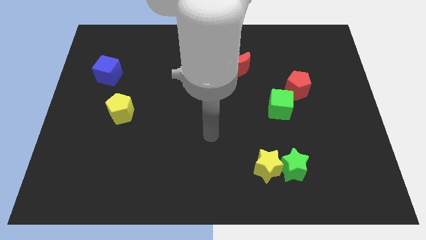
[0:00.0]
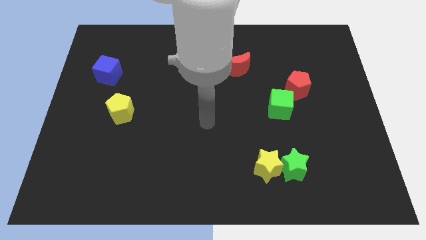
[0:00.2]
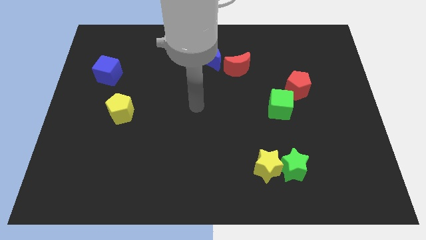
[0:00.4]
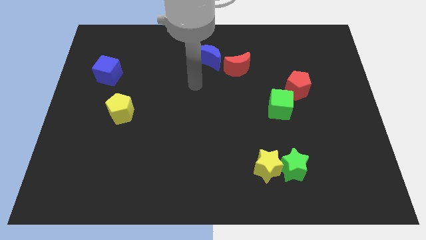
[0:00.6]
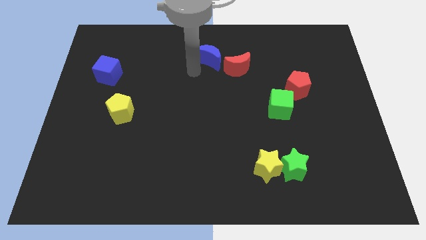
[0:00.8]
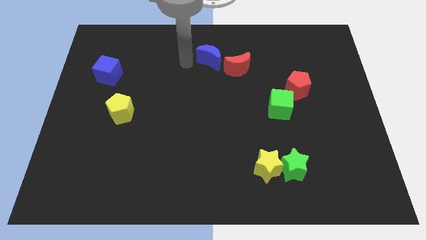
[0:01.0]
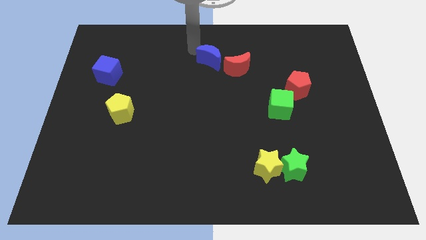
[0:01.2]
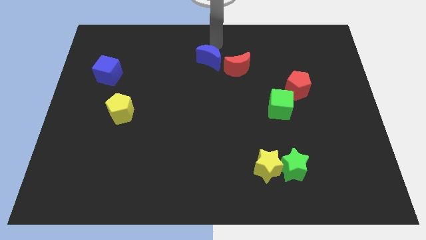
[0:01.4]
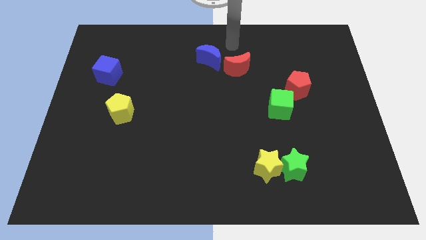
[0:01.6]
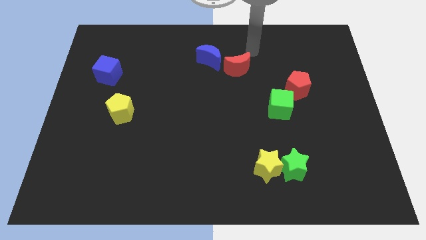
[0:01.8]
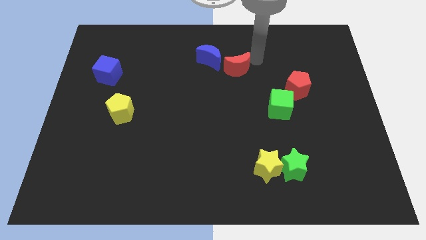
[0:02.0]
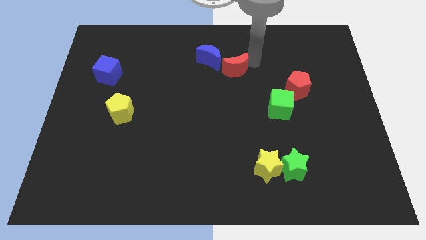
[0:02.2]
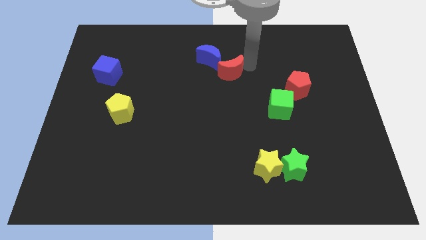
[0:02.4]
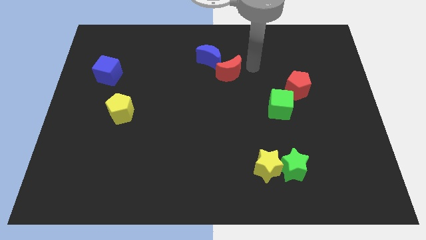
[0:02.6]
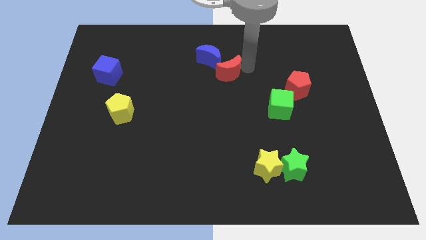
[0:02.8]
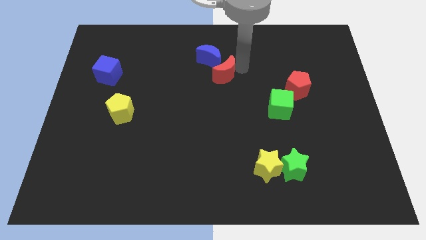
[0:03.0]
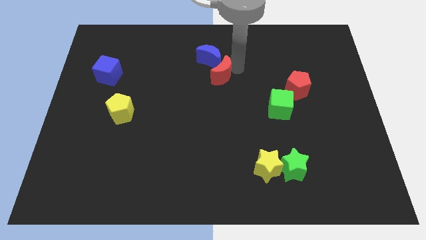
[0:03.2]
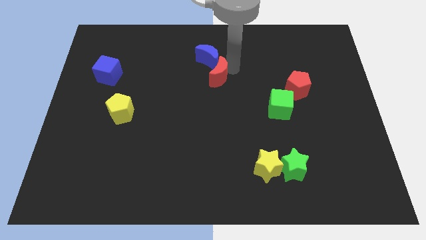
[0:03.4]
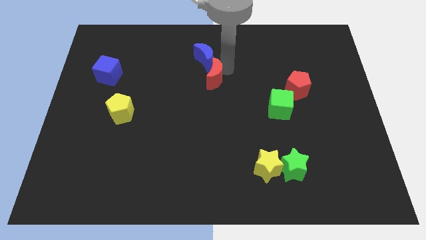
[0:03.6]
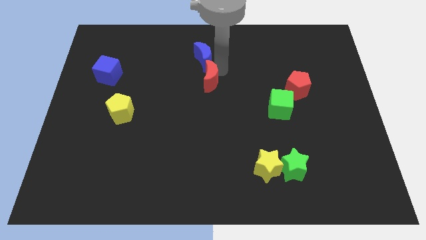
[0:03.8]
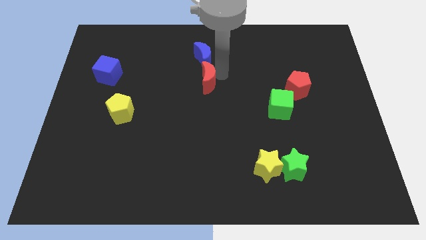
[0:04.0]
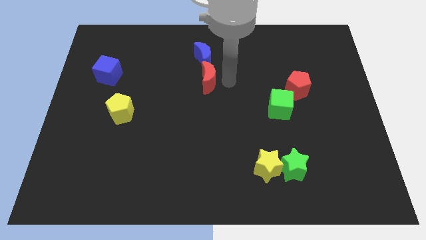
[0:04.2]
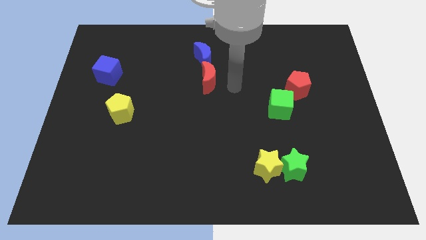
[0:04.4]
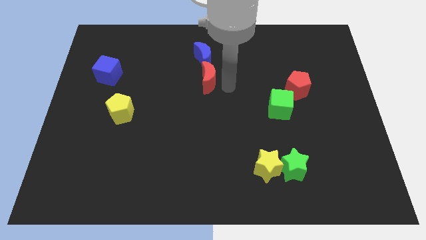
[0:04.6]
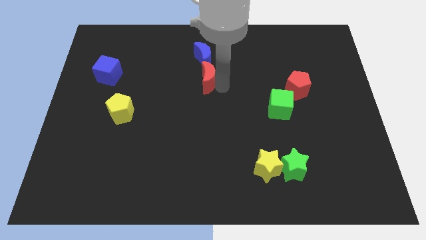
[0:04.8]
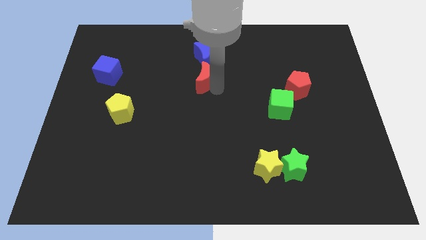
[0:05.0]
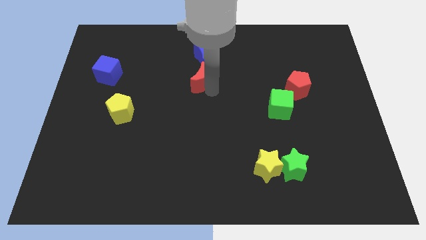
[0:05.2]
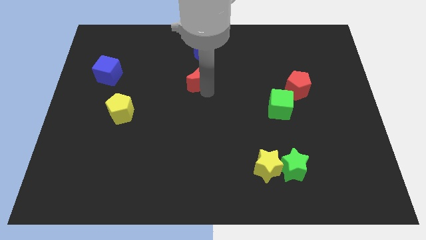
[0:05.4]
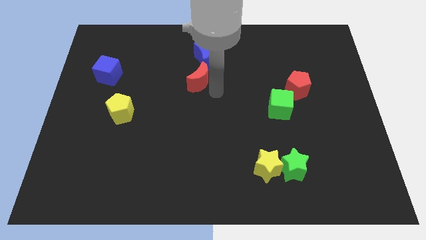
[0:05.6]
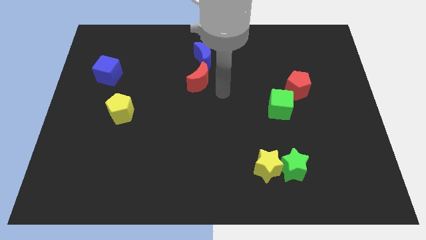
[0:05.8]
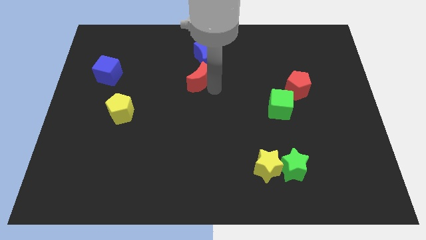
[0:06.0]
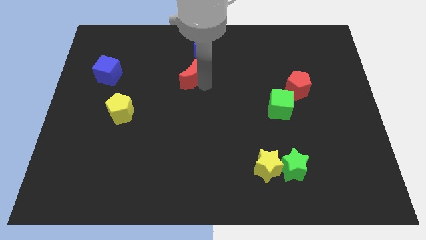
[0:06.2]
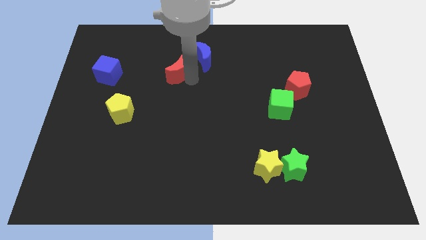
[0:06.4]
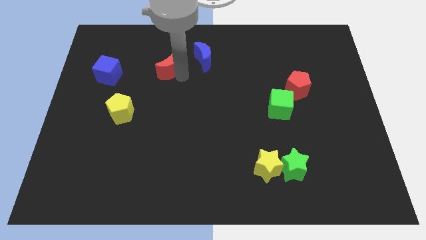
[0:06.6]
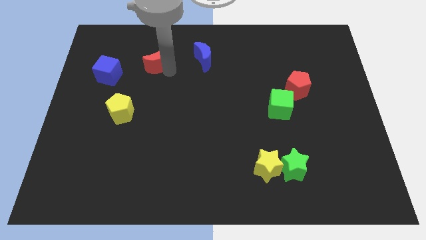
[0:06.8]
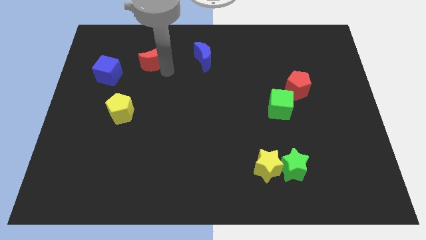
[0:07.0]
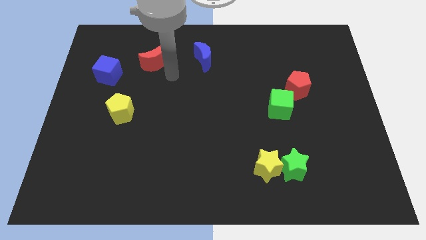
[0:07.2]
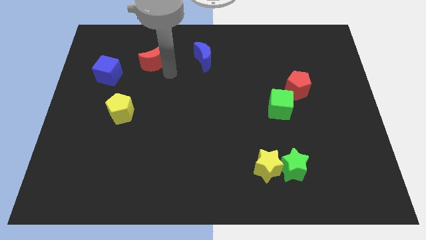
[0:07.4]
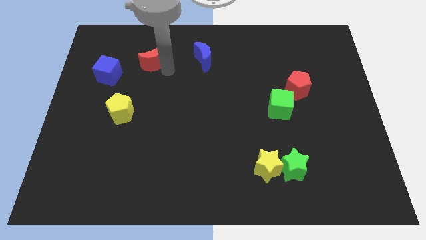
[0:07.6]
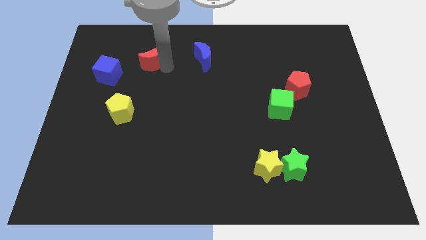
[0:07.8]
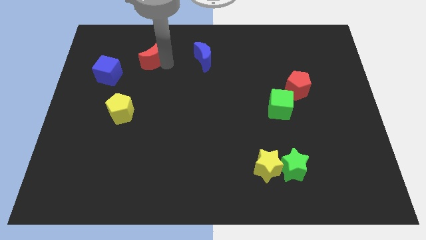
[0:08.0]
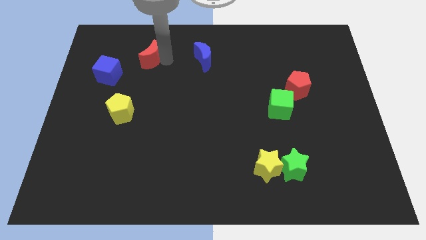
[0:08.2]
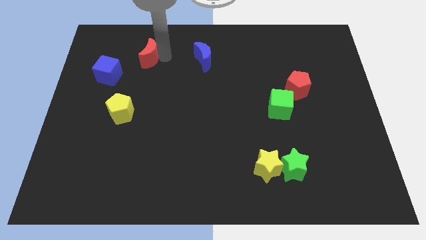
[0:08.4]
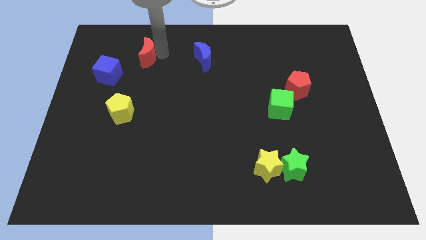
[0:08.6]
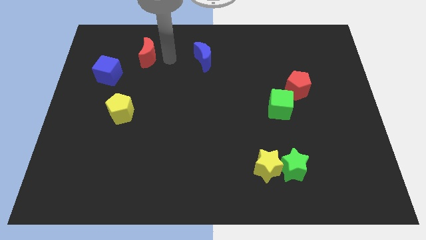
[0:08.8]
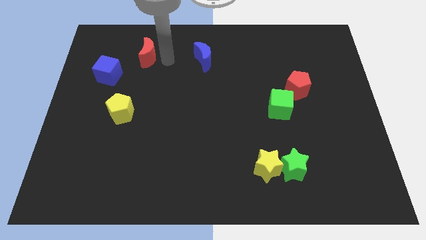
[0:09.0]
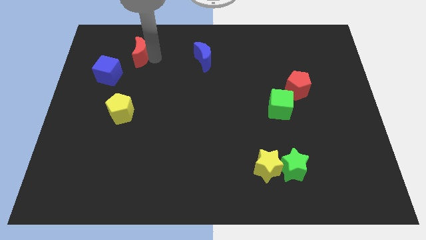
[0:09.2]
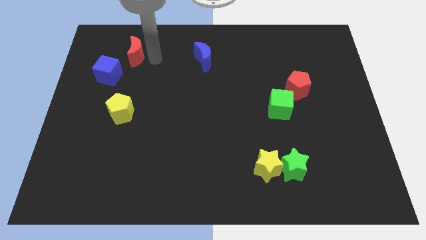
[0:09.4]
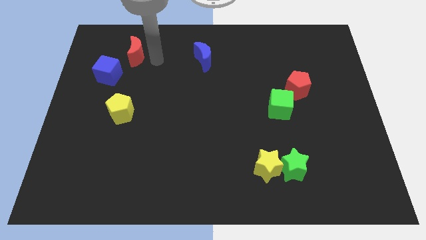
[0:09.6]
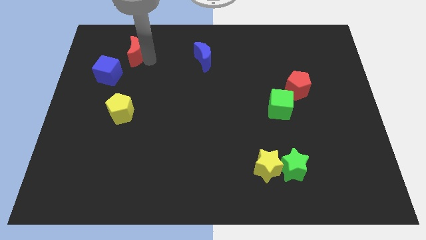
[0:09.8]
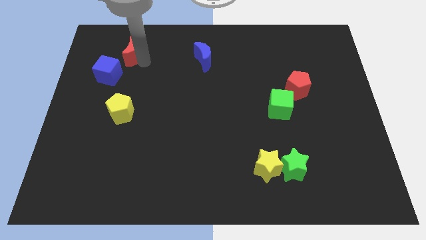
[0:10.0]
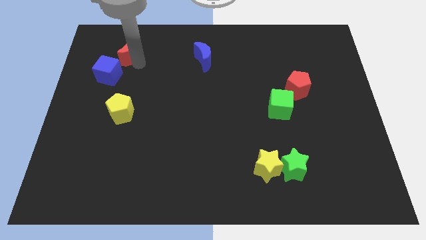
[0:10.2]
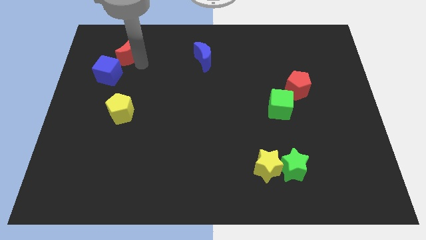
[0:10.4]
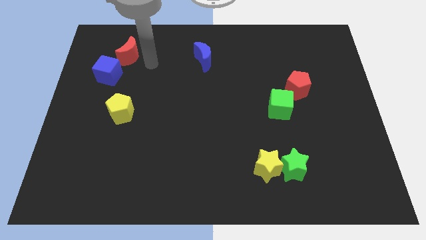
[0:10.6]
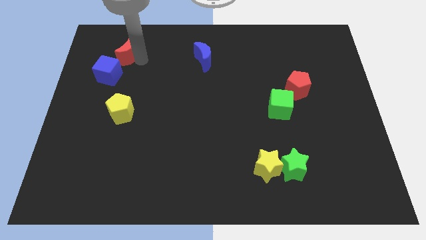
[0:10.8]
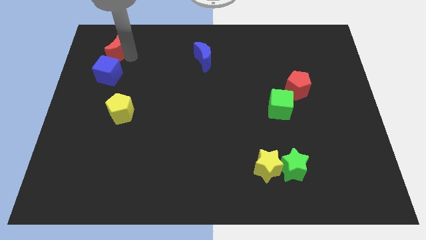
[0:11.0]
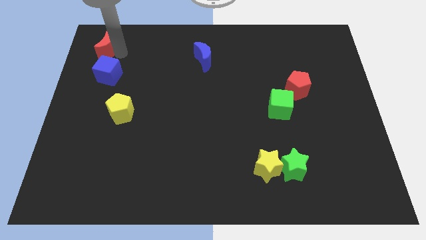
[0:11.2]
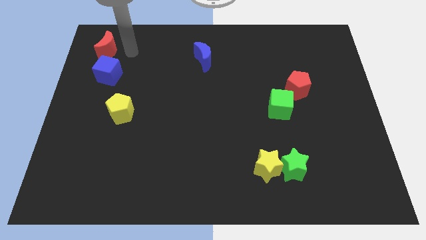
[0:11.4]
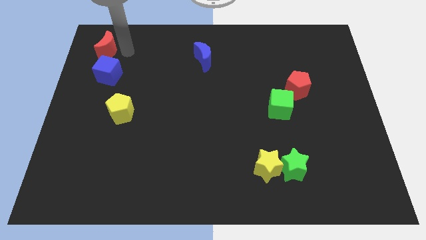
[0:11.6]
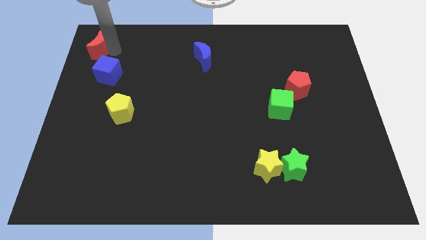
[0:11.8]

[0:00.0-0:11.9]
move the red moon to the upper left corner
